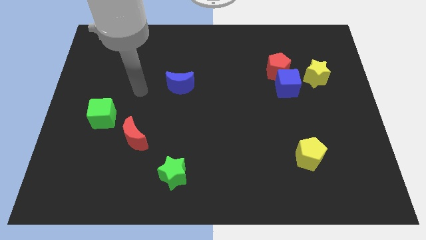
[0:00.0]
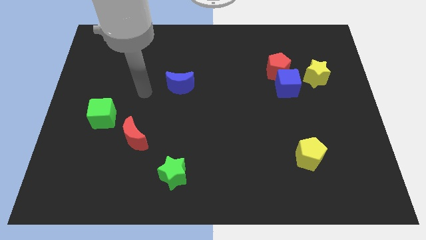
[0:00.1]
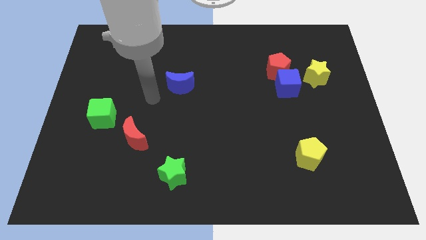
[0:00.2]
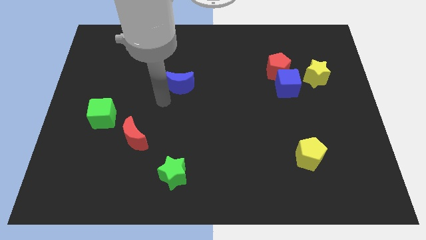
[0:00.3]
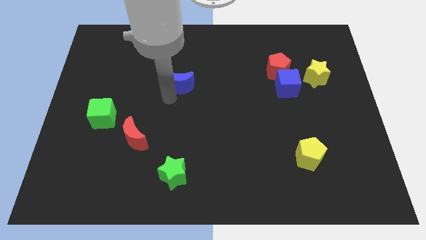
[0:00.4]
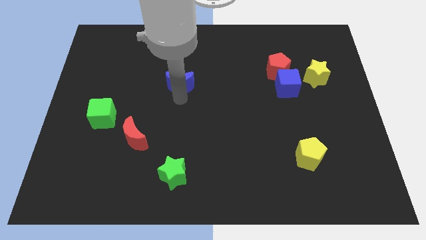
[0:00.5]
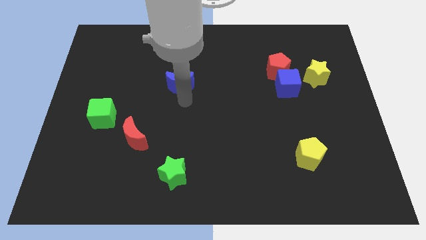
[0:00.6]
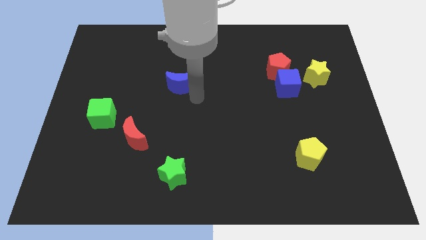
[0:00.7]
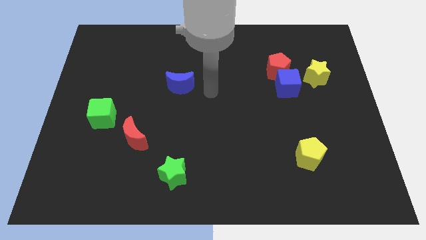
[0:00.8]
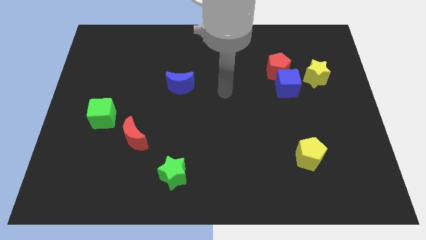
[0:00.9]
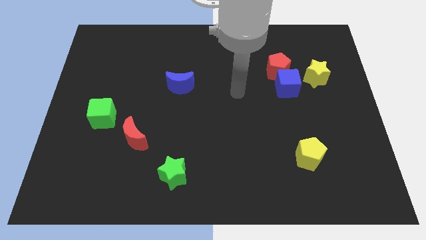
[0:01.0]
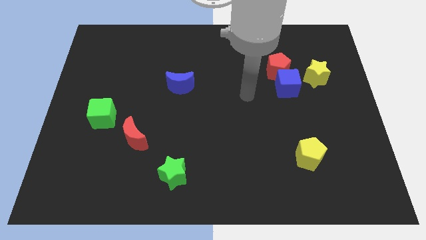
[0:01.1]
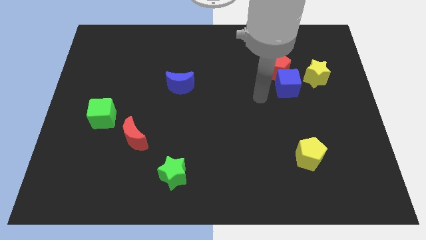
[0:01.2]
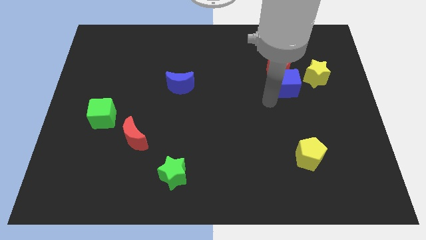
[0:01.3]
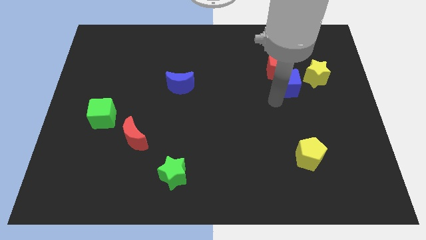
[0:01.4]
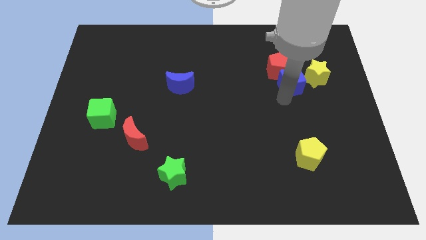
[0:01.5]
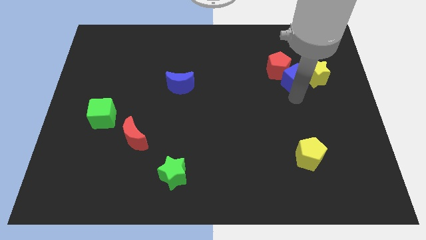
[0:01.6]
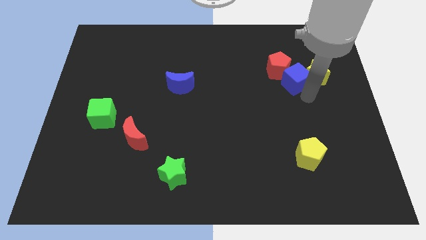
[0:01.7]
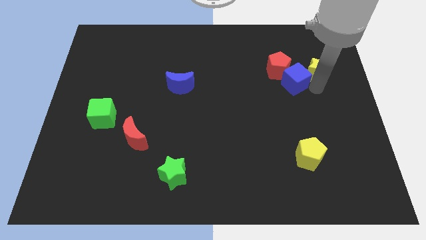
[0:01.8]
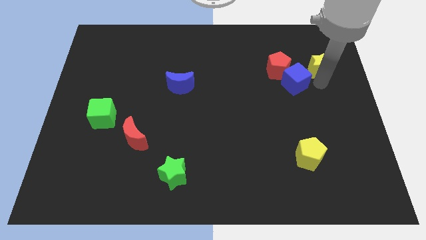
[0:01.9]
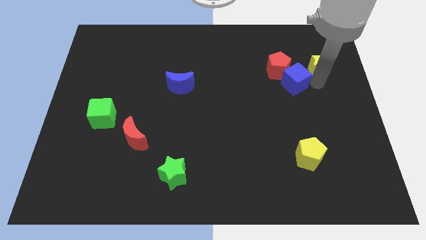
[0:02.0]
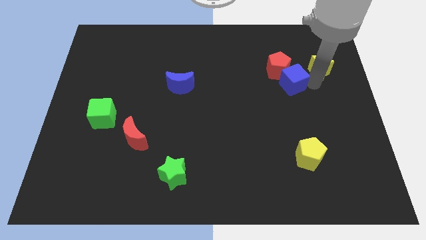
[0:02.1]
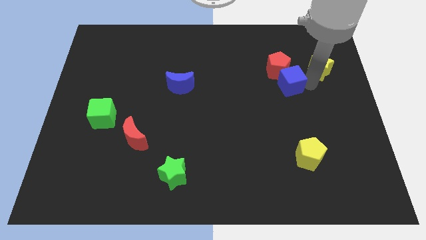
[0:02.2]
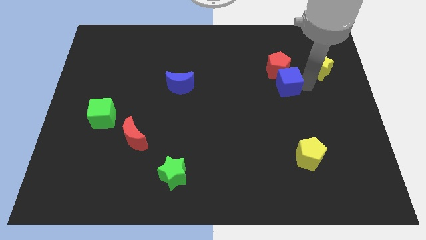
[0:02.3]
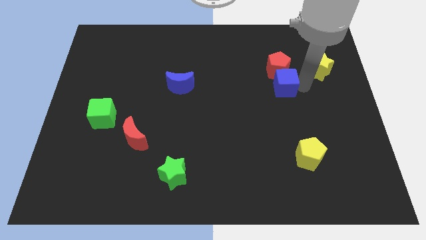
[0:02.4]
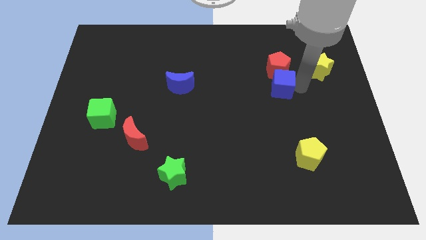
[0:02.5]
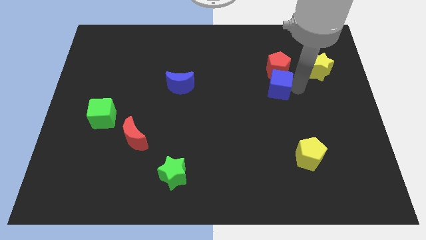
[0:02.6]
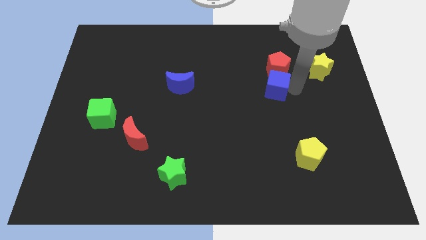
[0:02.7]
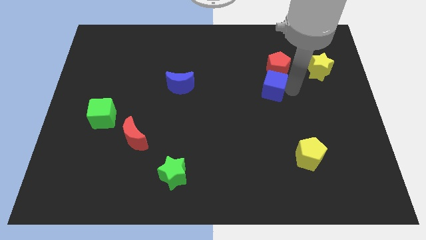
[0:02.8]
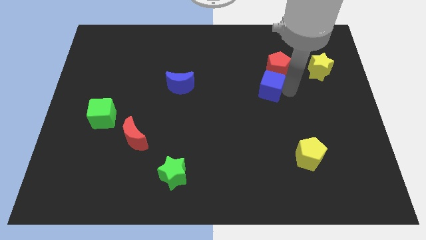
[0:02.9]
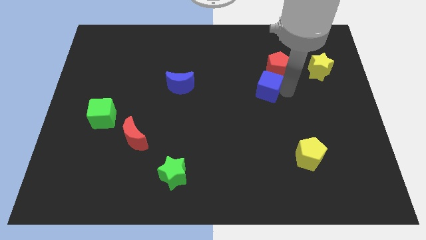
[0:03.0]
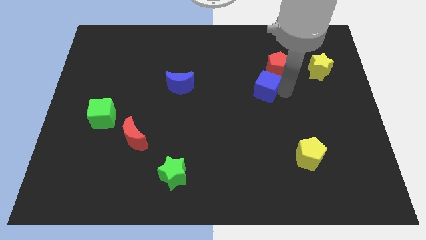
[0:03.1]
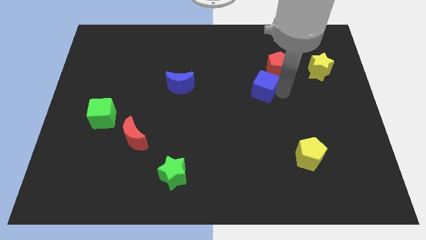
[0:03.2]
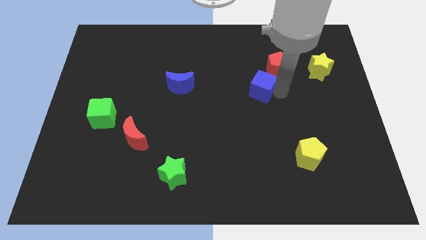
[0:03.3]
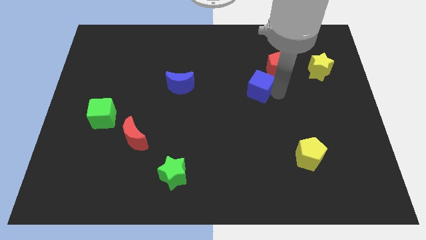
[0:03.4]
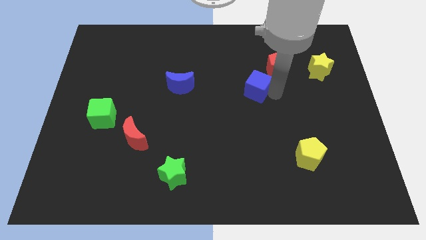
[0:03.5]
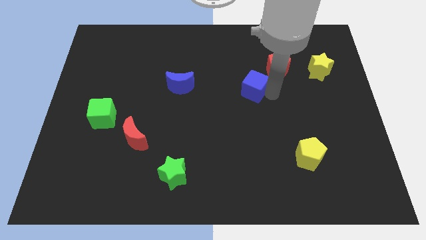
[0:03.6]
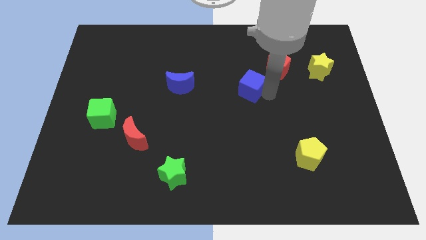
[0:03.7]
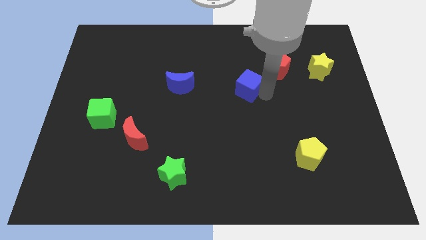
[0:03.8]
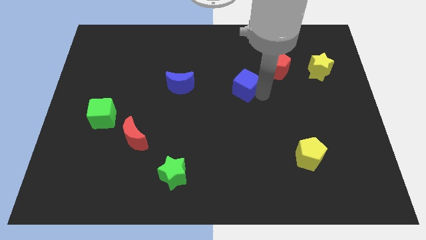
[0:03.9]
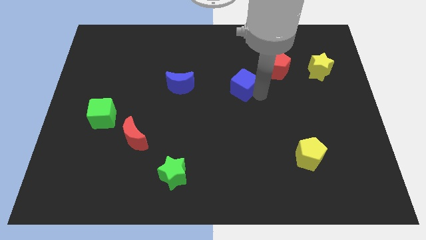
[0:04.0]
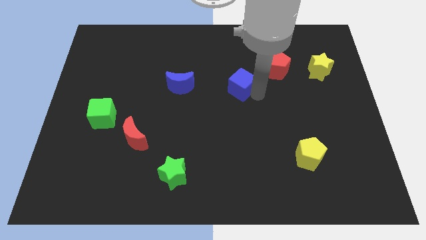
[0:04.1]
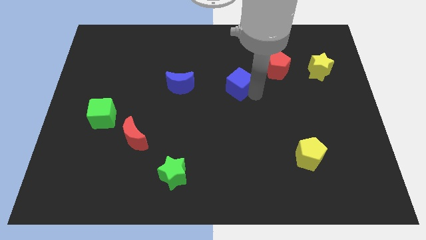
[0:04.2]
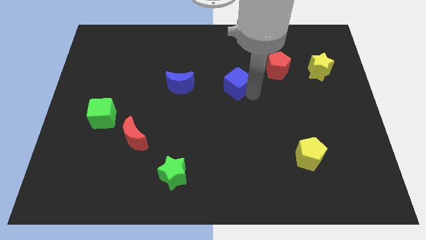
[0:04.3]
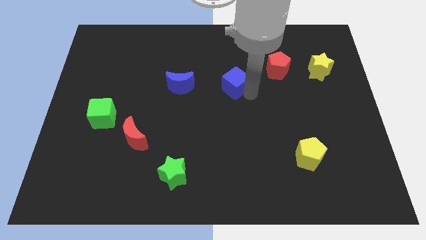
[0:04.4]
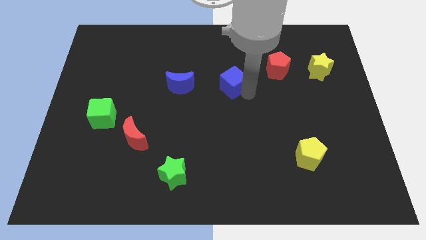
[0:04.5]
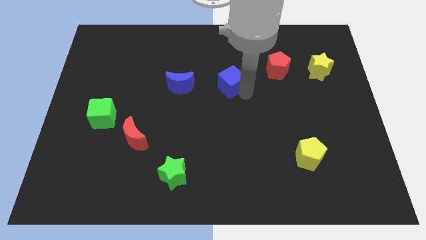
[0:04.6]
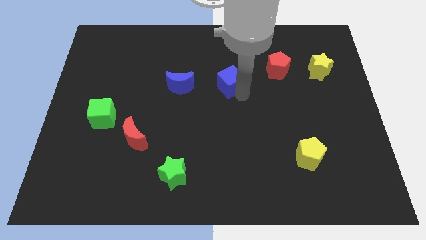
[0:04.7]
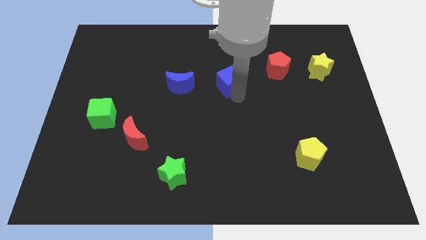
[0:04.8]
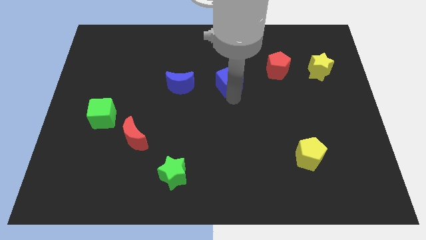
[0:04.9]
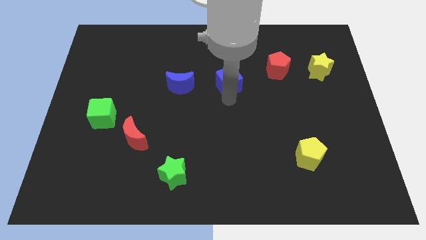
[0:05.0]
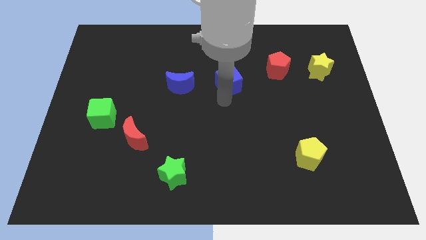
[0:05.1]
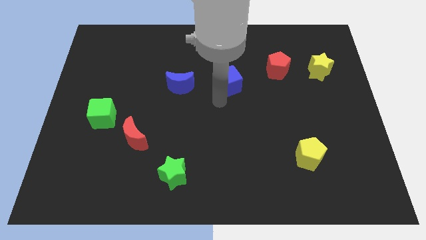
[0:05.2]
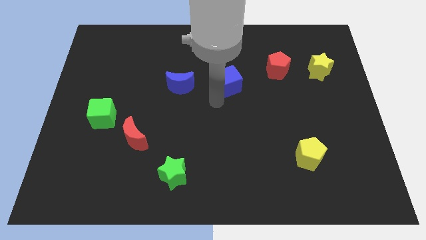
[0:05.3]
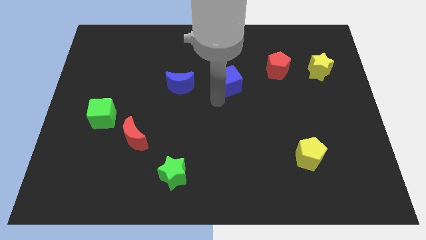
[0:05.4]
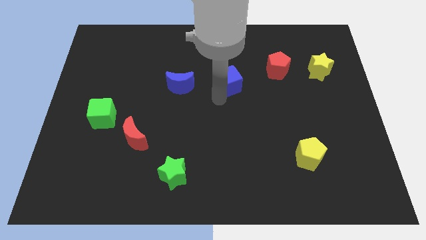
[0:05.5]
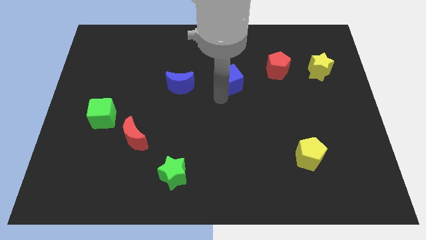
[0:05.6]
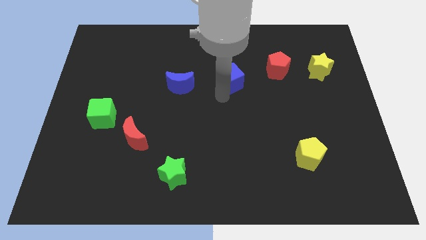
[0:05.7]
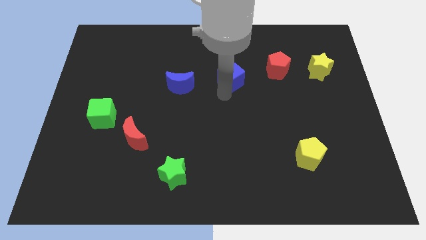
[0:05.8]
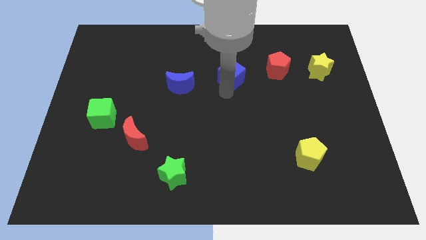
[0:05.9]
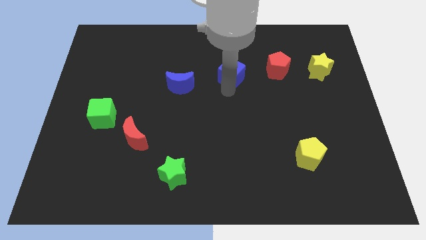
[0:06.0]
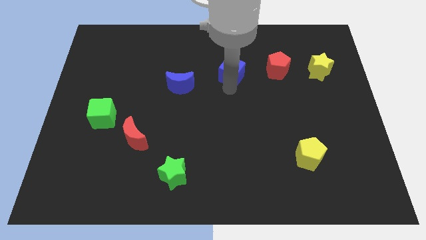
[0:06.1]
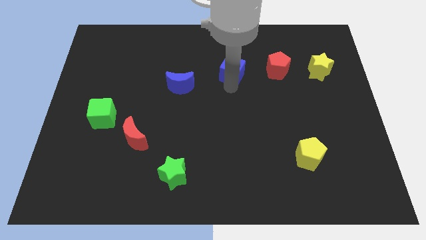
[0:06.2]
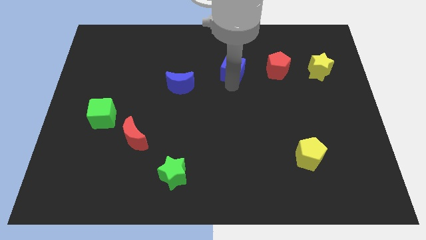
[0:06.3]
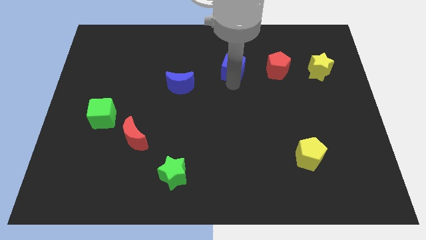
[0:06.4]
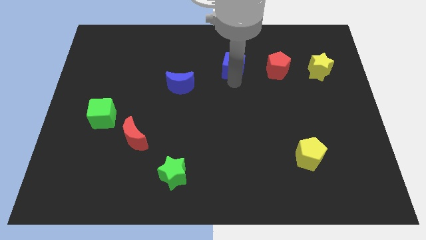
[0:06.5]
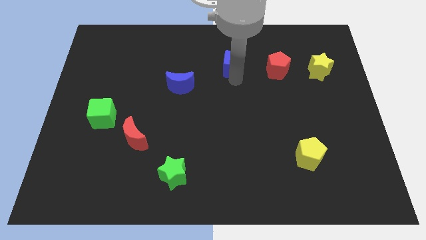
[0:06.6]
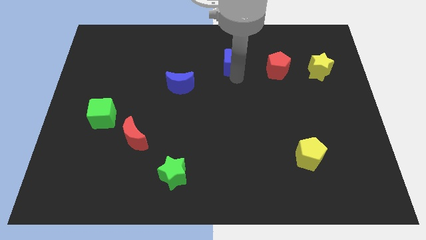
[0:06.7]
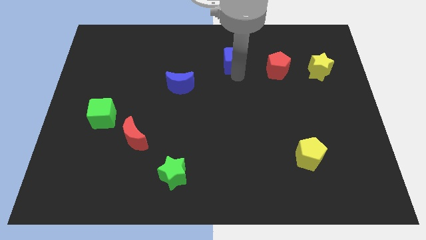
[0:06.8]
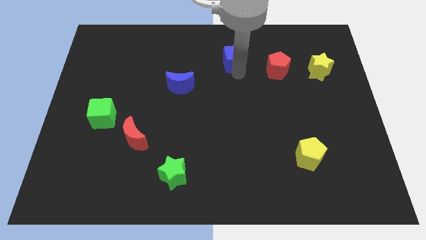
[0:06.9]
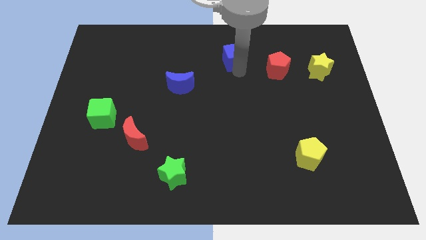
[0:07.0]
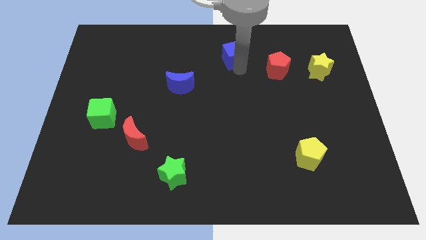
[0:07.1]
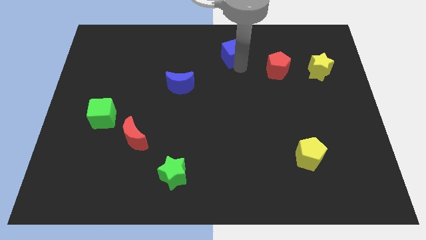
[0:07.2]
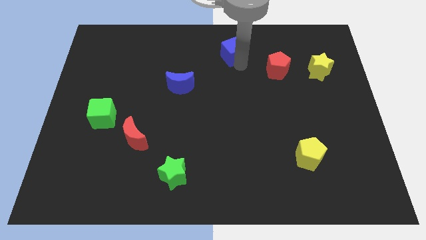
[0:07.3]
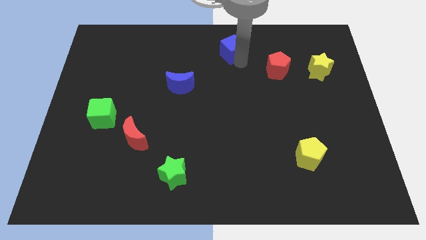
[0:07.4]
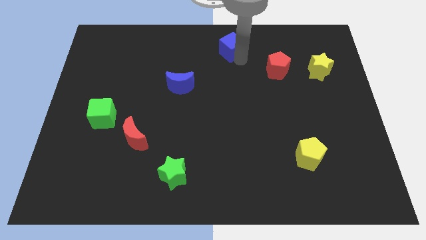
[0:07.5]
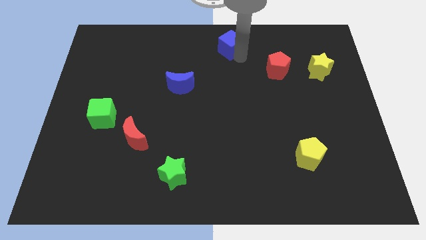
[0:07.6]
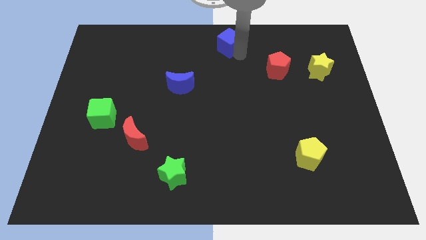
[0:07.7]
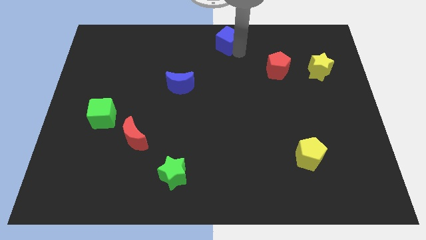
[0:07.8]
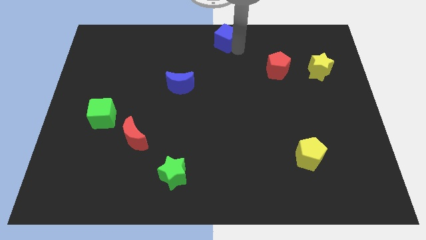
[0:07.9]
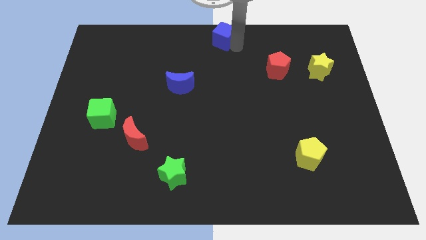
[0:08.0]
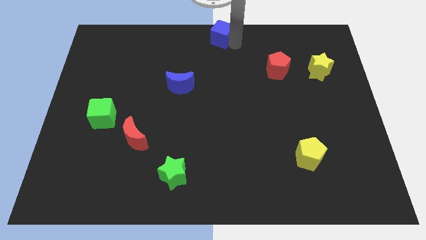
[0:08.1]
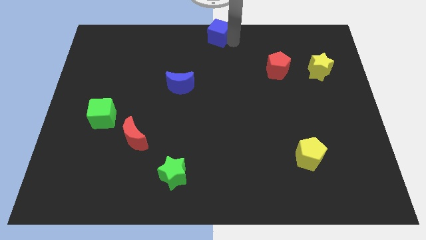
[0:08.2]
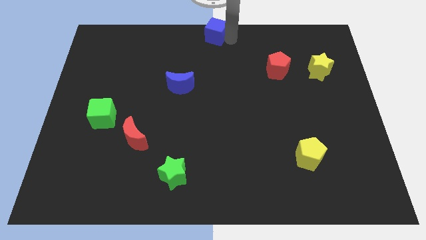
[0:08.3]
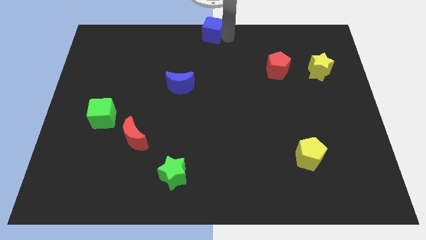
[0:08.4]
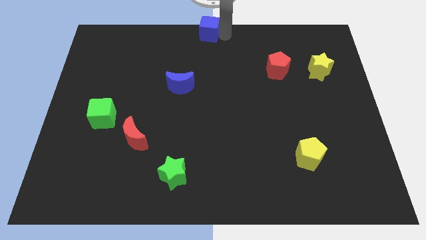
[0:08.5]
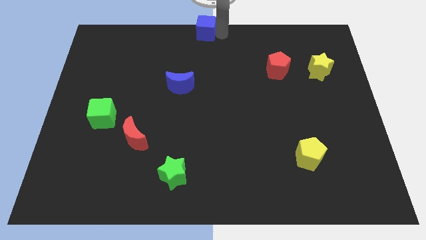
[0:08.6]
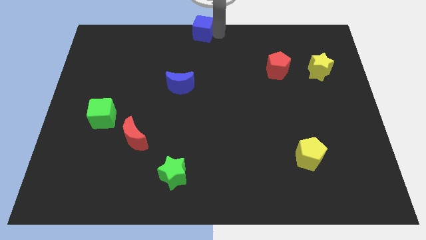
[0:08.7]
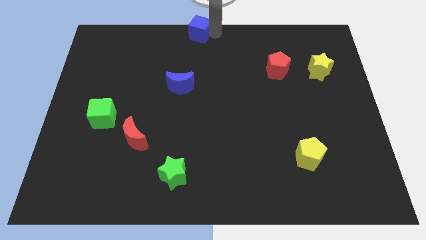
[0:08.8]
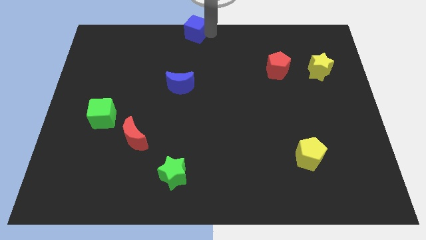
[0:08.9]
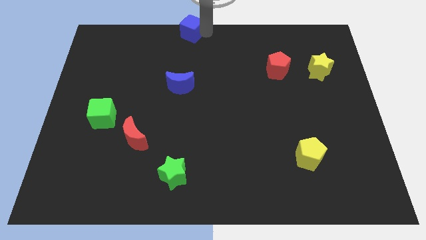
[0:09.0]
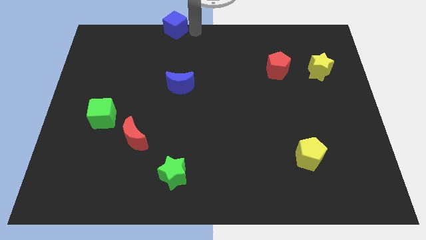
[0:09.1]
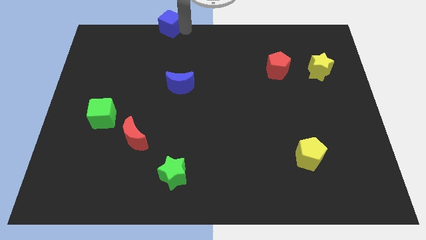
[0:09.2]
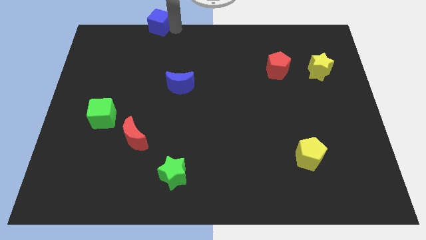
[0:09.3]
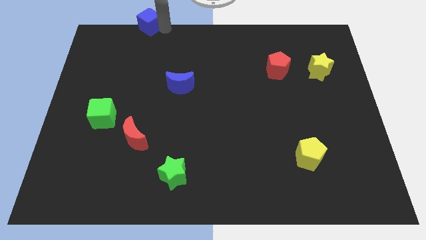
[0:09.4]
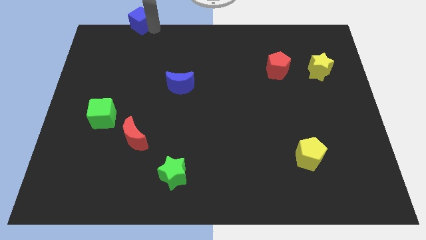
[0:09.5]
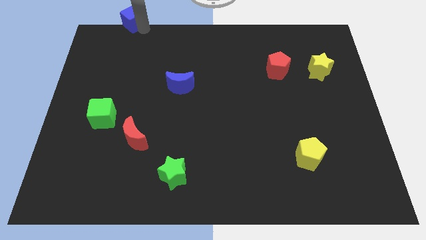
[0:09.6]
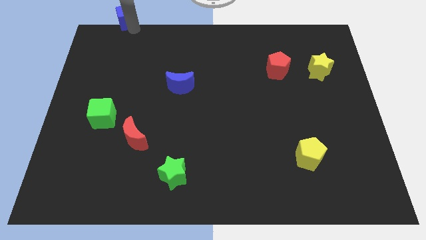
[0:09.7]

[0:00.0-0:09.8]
push the blue cube to the top left of the board
